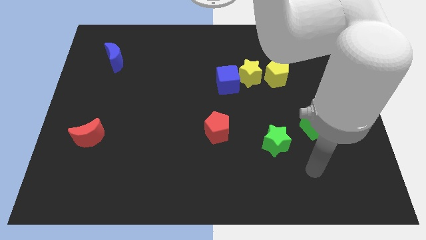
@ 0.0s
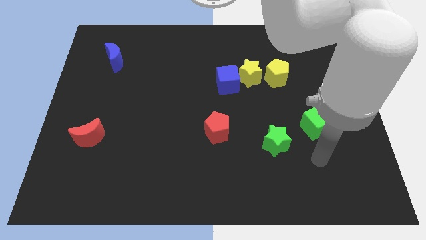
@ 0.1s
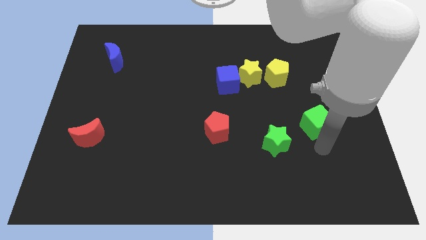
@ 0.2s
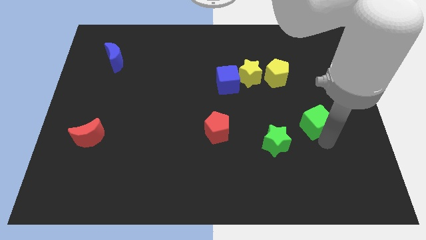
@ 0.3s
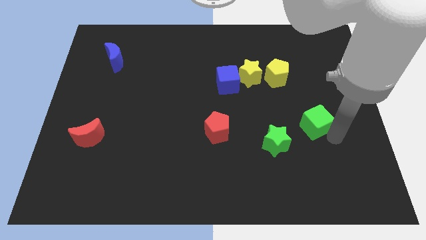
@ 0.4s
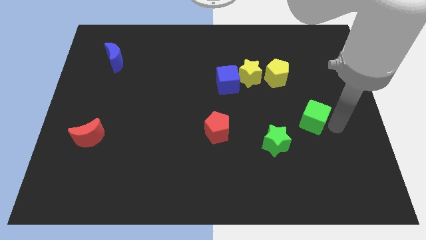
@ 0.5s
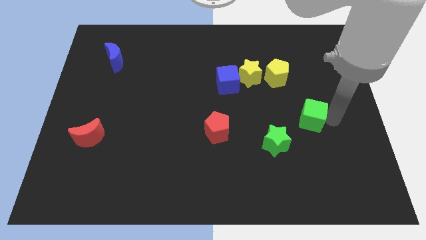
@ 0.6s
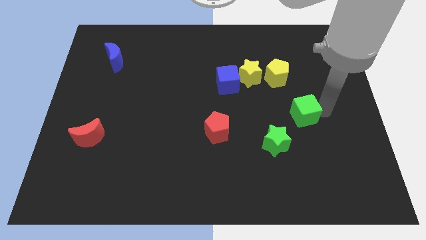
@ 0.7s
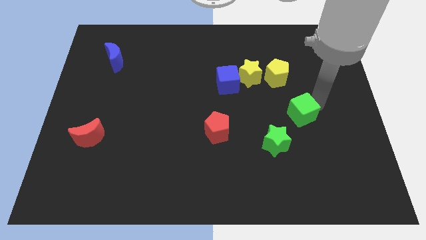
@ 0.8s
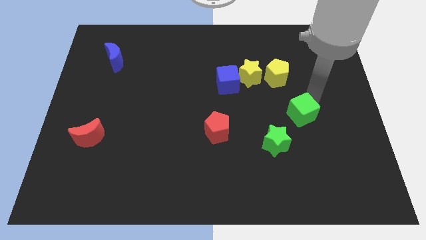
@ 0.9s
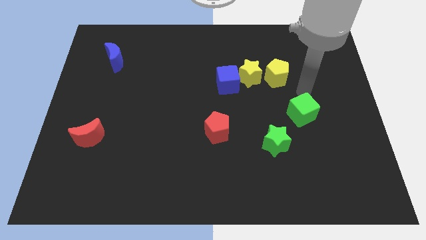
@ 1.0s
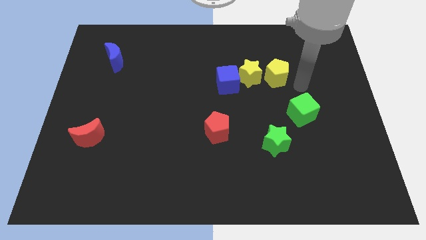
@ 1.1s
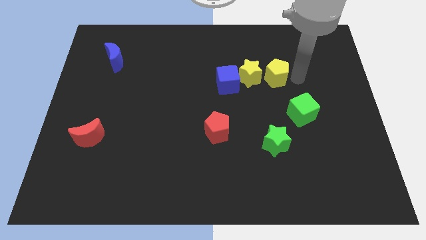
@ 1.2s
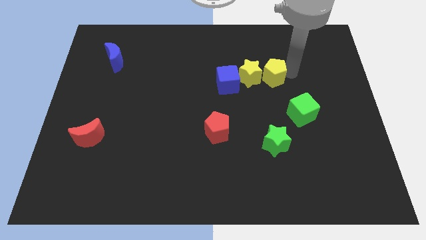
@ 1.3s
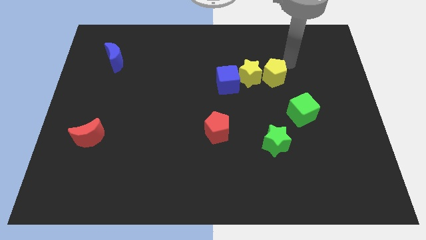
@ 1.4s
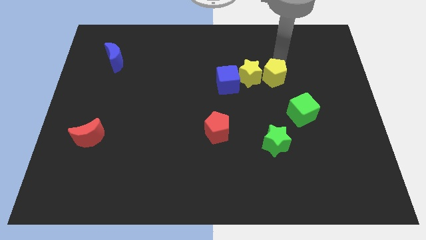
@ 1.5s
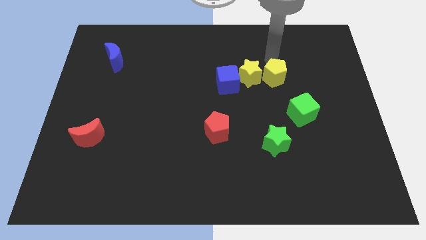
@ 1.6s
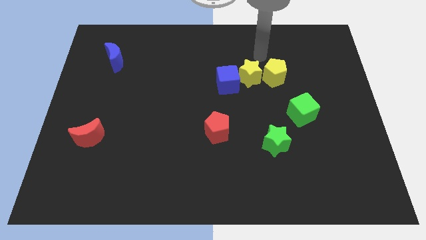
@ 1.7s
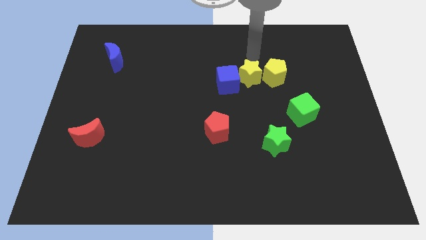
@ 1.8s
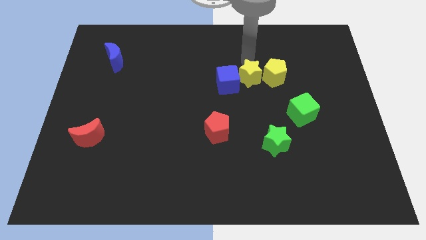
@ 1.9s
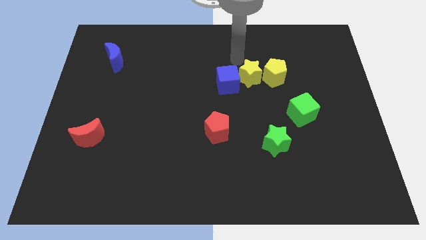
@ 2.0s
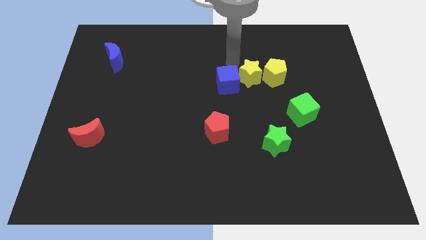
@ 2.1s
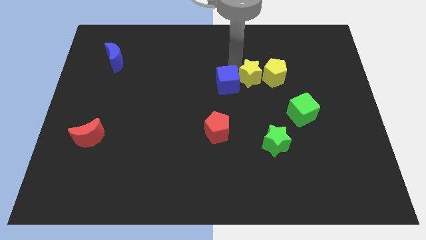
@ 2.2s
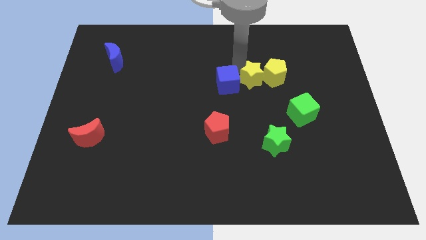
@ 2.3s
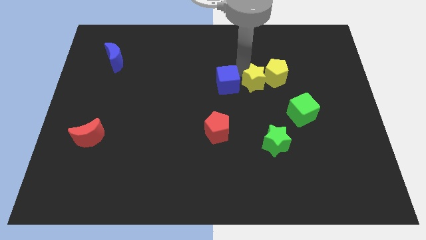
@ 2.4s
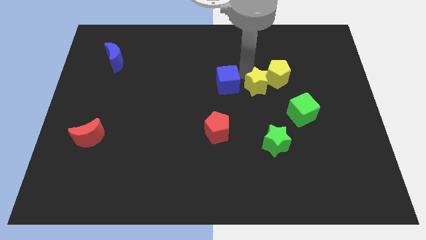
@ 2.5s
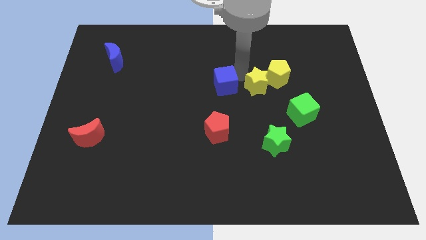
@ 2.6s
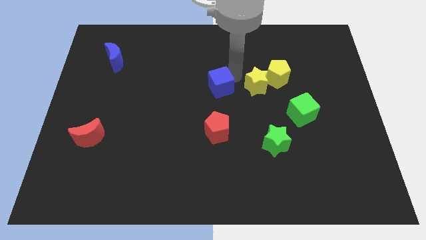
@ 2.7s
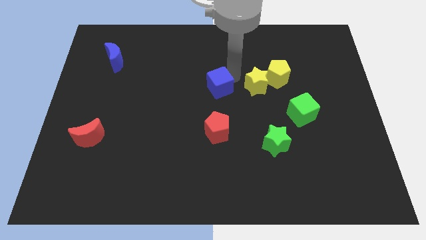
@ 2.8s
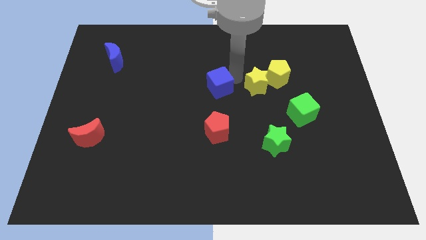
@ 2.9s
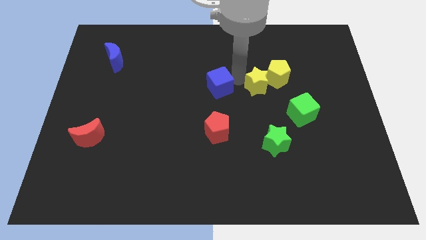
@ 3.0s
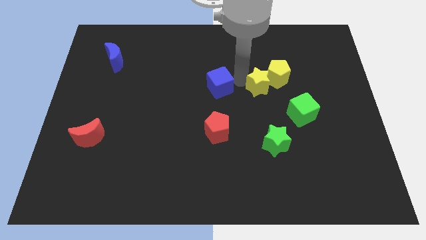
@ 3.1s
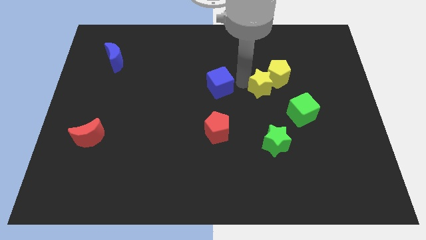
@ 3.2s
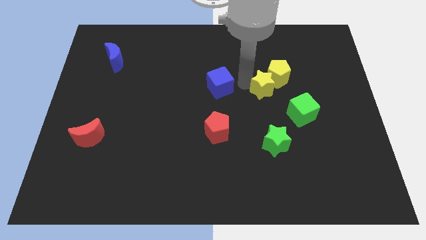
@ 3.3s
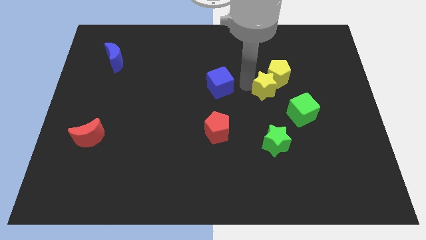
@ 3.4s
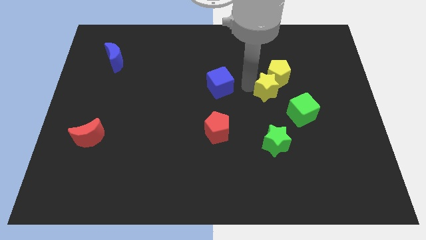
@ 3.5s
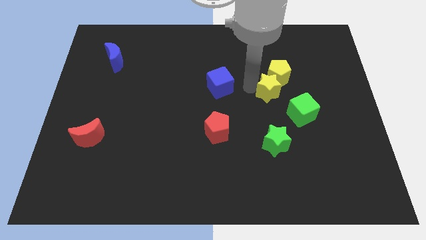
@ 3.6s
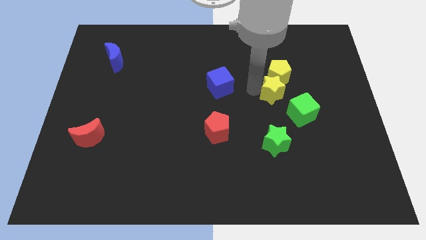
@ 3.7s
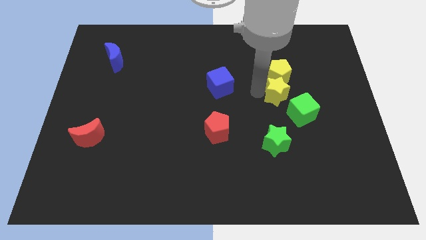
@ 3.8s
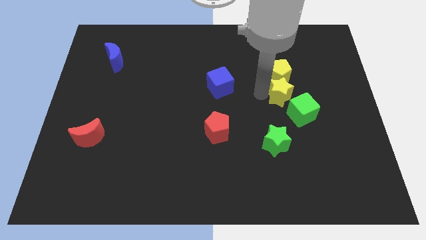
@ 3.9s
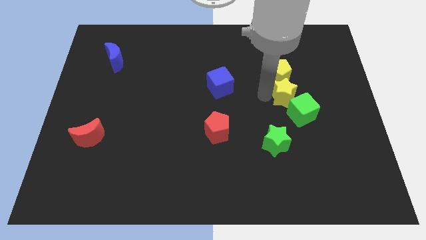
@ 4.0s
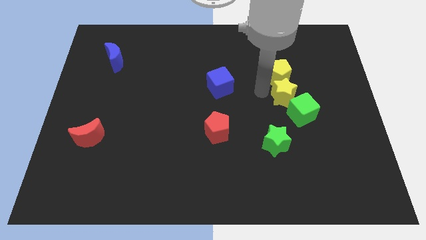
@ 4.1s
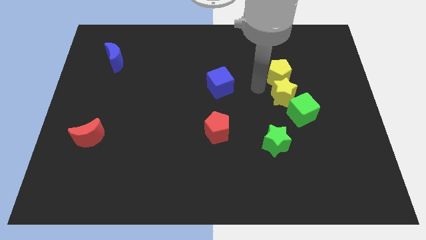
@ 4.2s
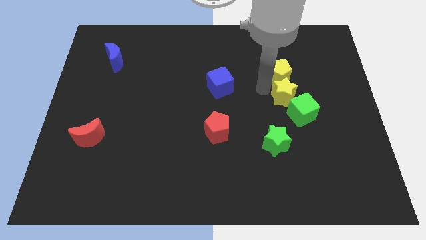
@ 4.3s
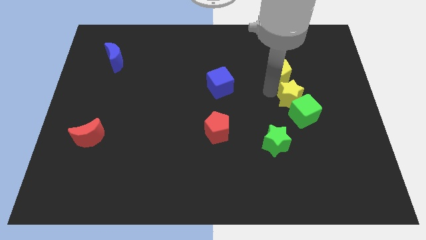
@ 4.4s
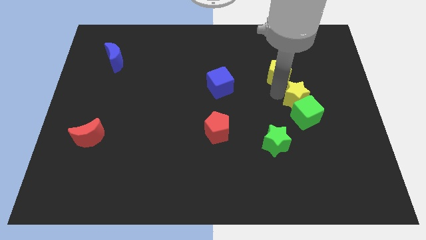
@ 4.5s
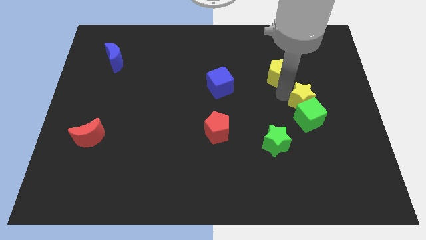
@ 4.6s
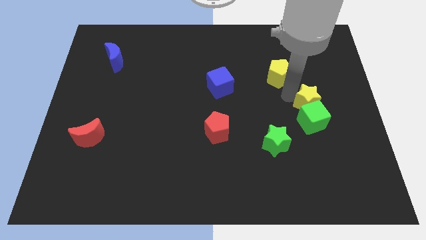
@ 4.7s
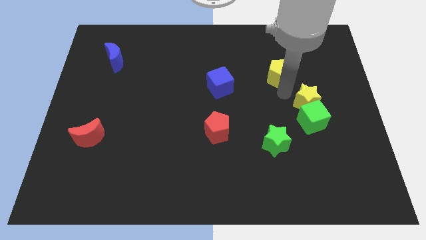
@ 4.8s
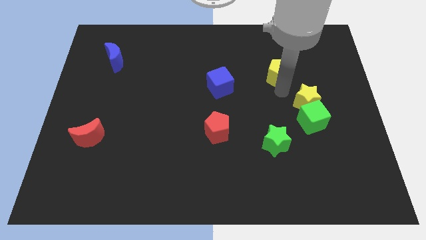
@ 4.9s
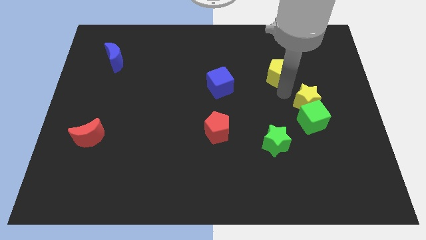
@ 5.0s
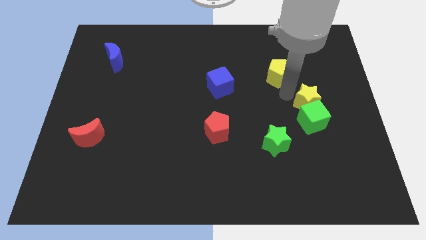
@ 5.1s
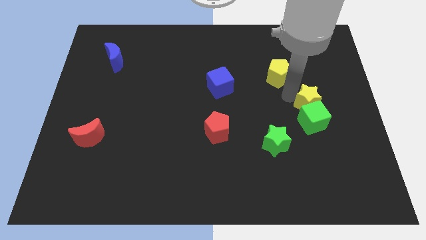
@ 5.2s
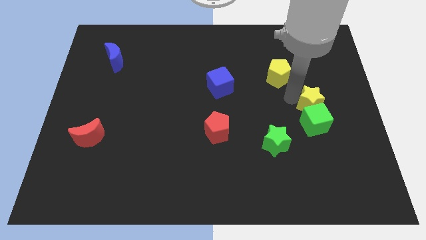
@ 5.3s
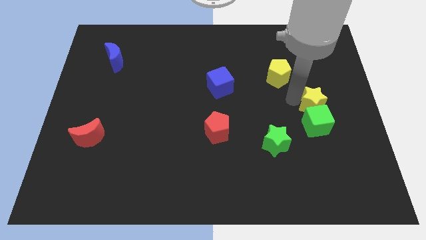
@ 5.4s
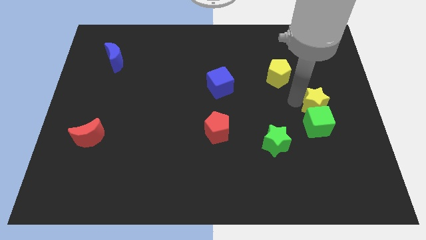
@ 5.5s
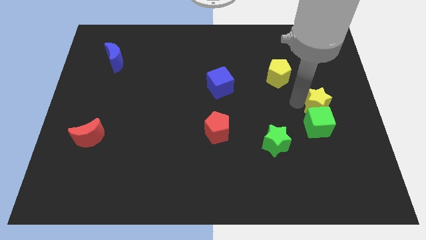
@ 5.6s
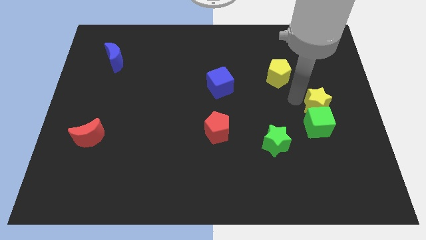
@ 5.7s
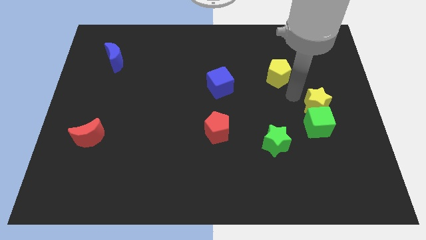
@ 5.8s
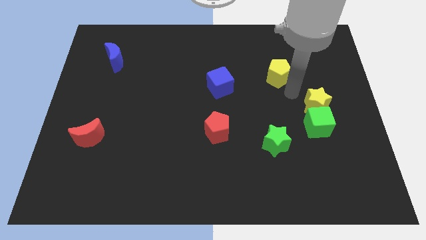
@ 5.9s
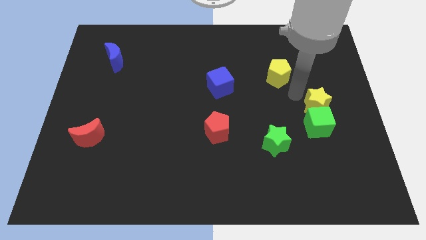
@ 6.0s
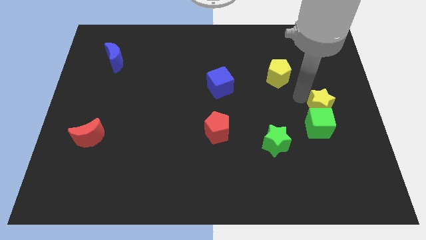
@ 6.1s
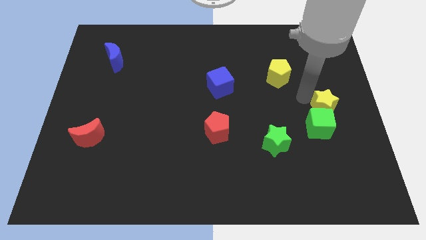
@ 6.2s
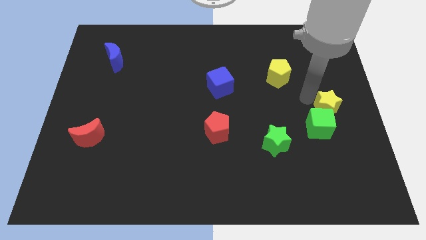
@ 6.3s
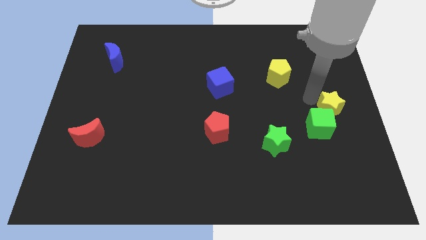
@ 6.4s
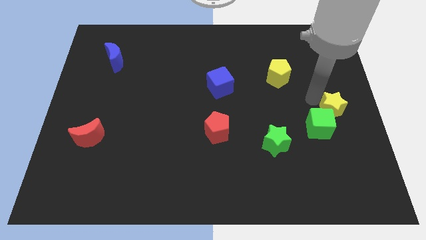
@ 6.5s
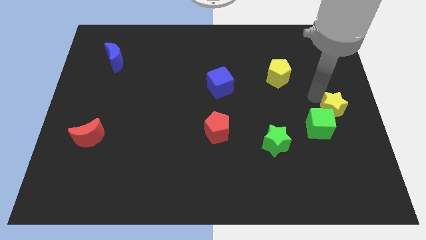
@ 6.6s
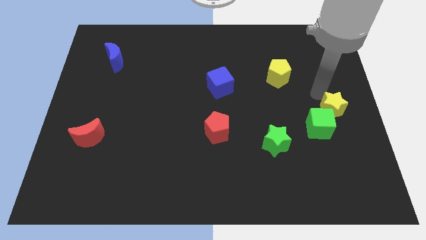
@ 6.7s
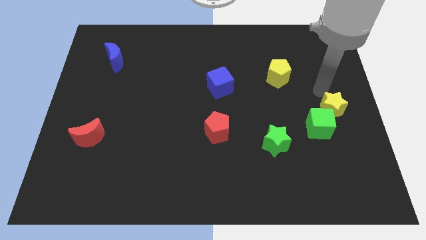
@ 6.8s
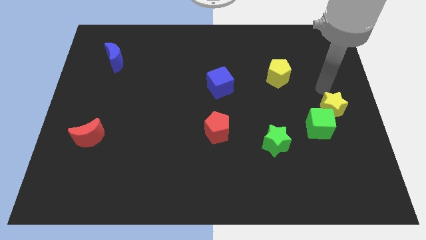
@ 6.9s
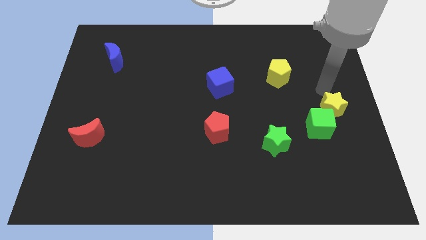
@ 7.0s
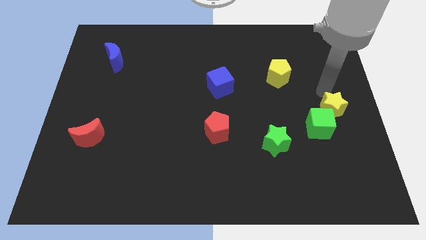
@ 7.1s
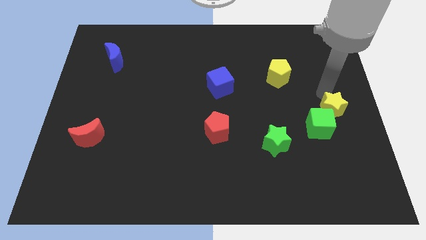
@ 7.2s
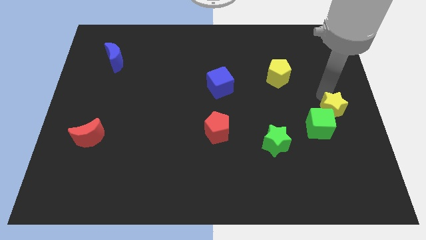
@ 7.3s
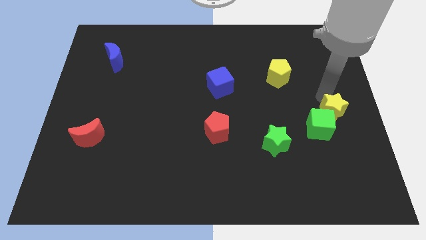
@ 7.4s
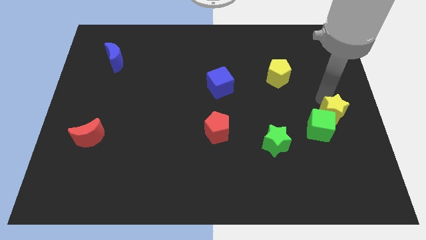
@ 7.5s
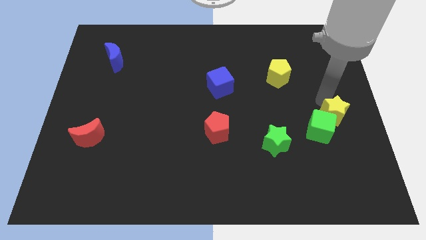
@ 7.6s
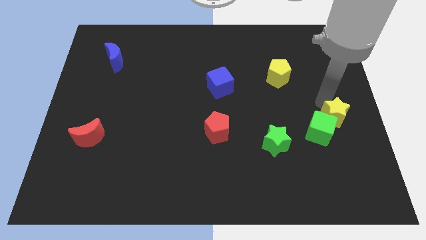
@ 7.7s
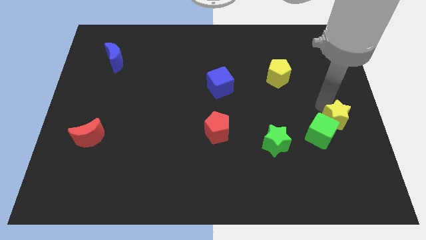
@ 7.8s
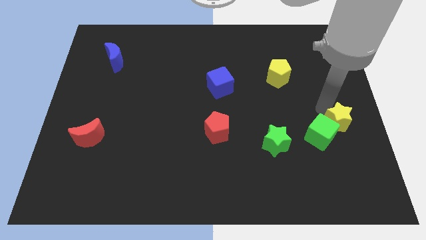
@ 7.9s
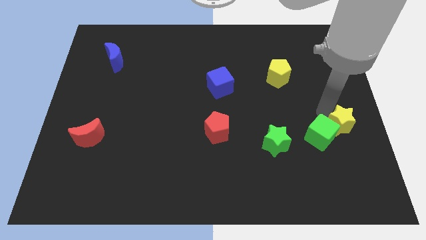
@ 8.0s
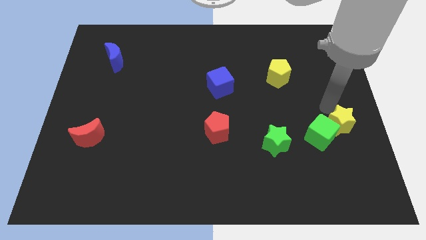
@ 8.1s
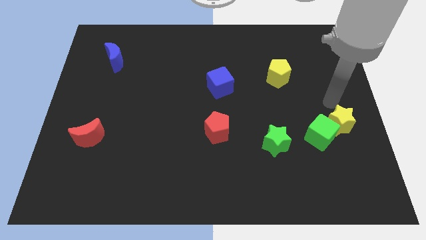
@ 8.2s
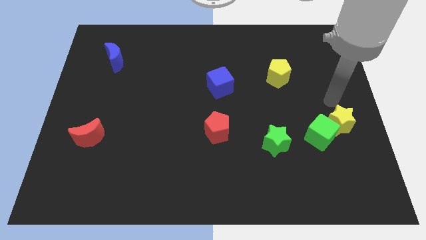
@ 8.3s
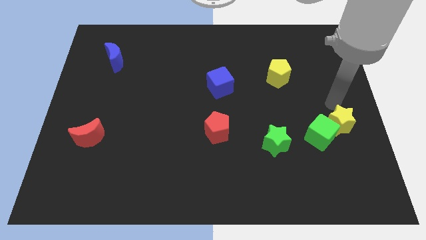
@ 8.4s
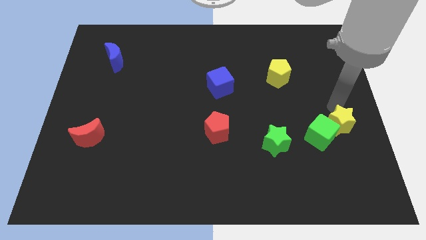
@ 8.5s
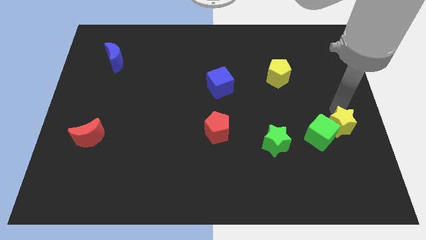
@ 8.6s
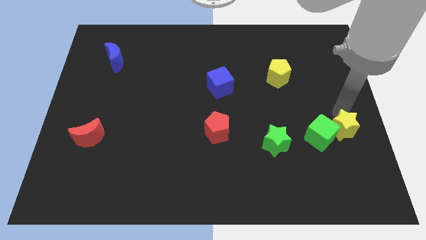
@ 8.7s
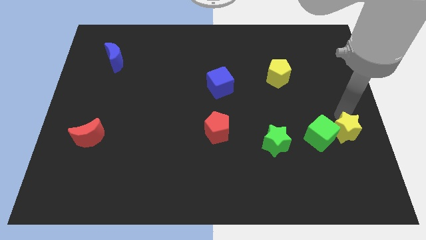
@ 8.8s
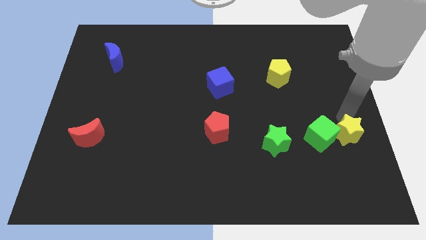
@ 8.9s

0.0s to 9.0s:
put the yellow star to the bottom right side of the green cube
